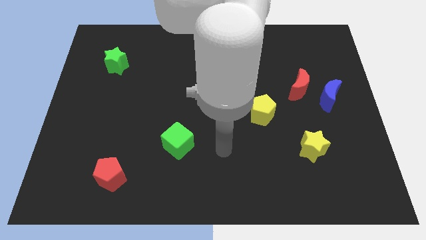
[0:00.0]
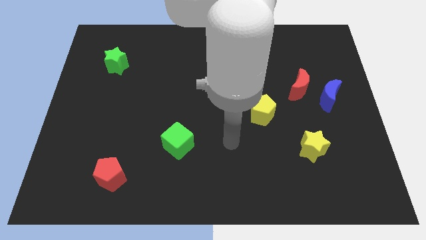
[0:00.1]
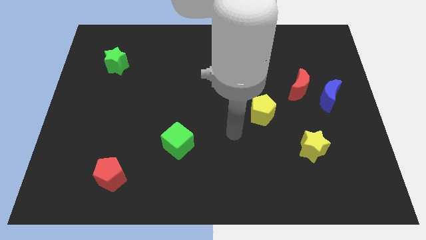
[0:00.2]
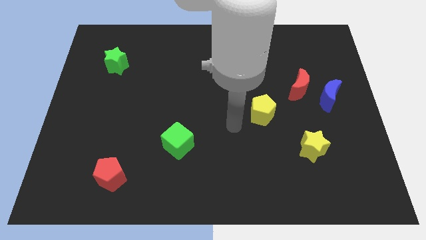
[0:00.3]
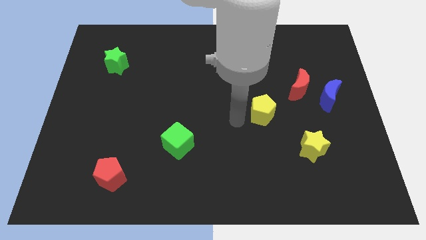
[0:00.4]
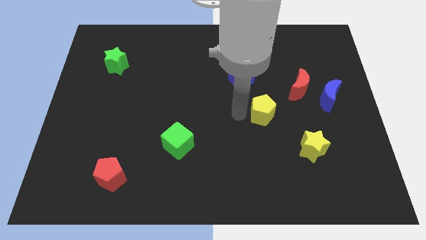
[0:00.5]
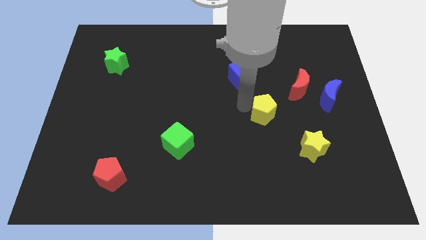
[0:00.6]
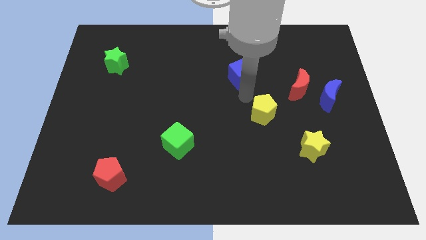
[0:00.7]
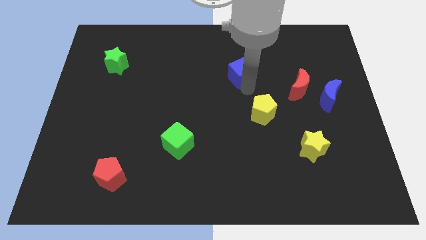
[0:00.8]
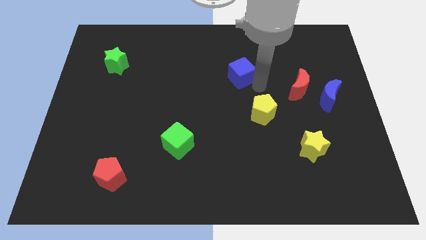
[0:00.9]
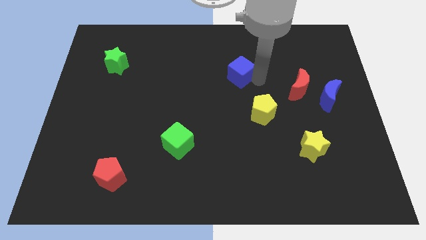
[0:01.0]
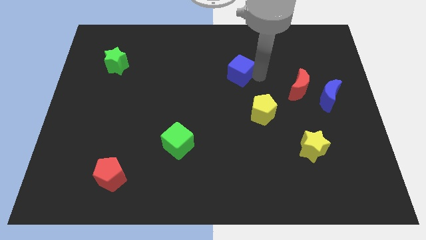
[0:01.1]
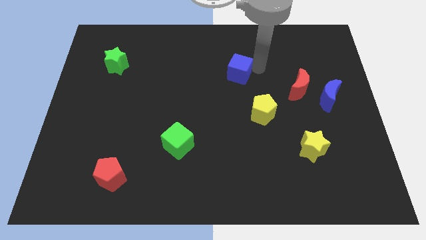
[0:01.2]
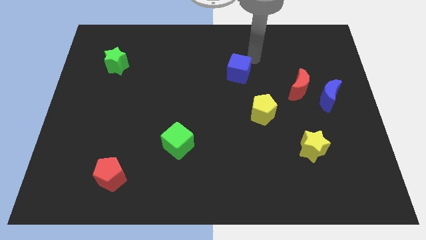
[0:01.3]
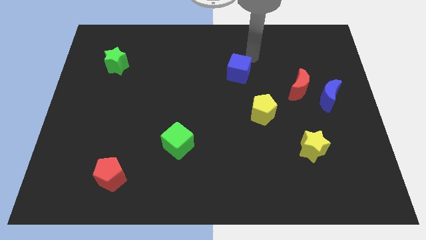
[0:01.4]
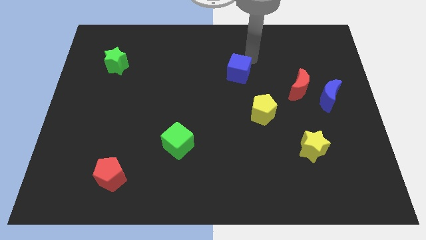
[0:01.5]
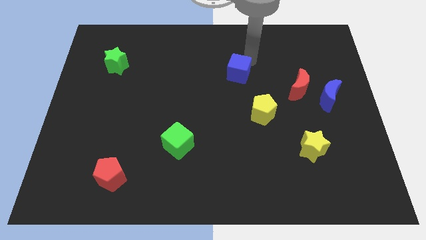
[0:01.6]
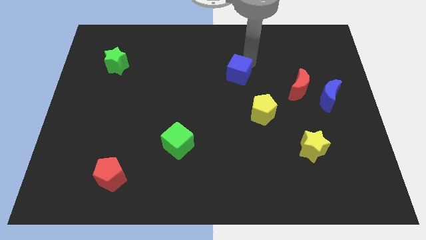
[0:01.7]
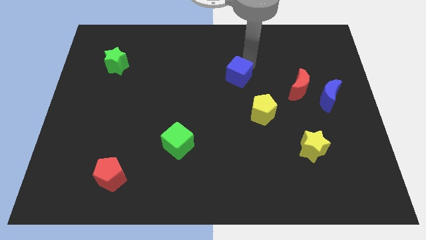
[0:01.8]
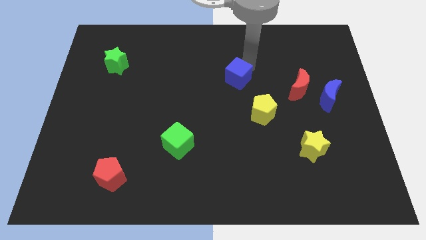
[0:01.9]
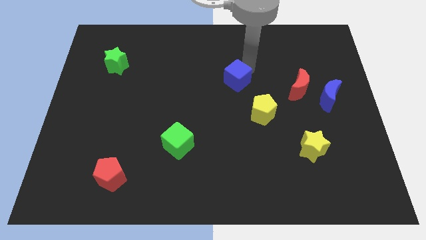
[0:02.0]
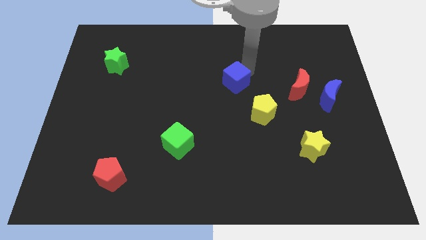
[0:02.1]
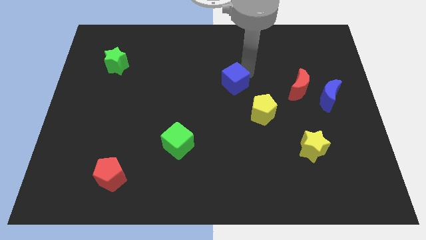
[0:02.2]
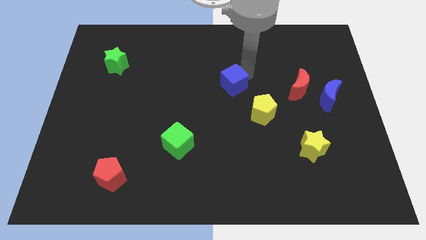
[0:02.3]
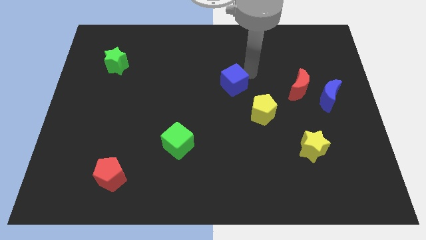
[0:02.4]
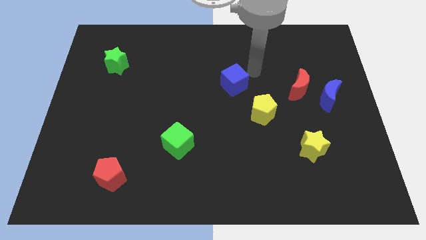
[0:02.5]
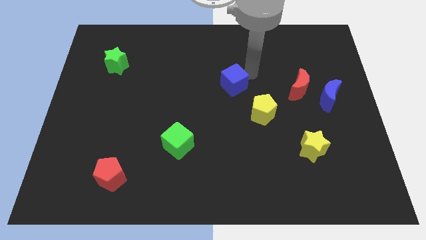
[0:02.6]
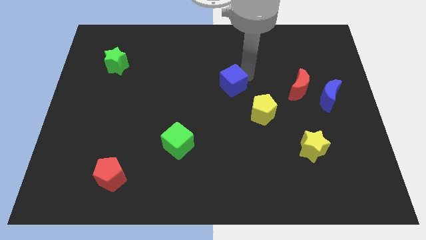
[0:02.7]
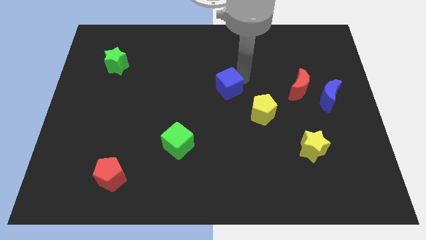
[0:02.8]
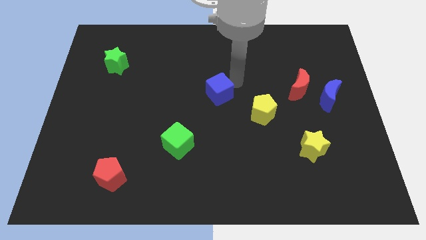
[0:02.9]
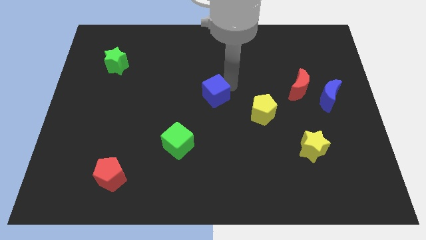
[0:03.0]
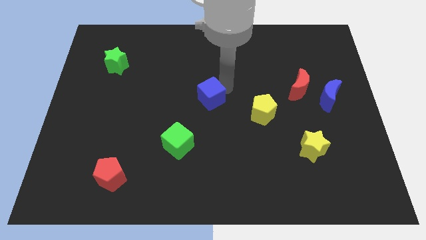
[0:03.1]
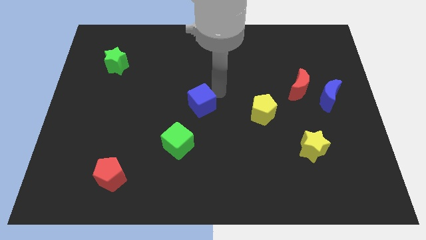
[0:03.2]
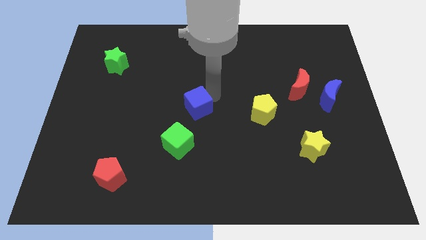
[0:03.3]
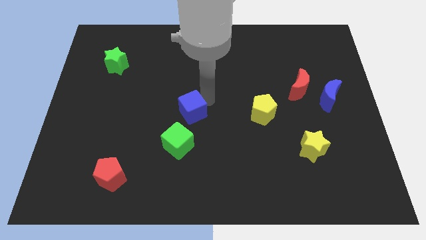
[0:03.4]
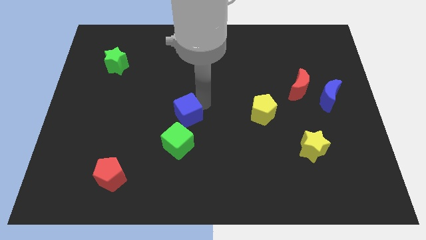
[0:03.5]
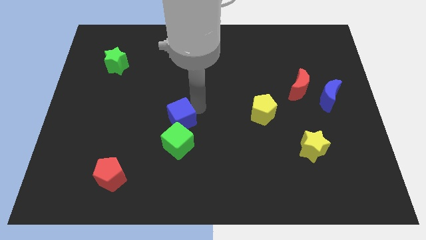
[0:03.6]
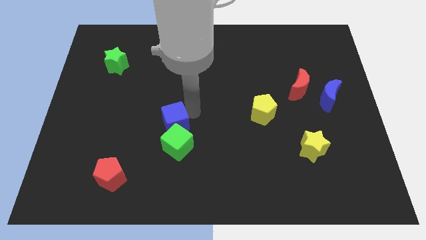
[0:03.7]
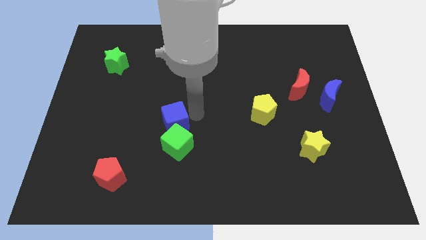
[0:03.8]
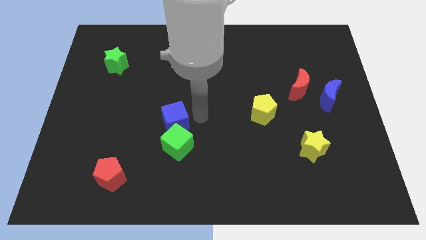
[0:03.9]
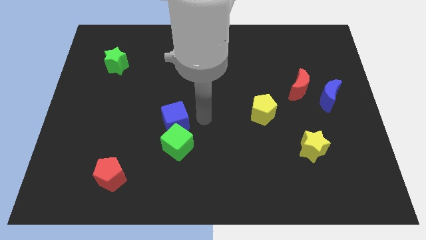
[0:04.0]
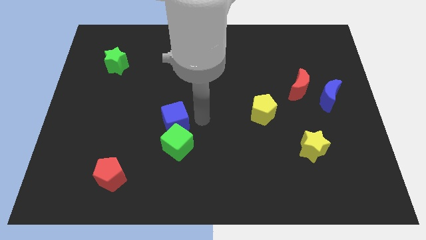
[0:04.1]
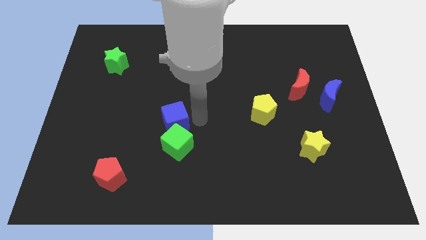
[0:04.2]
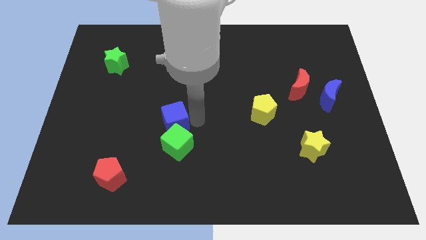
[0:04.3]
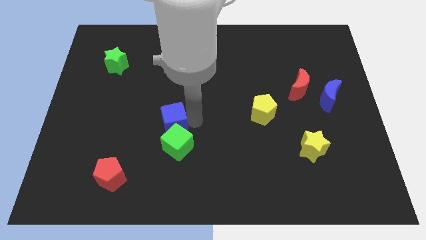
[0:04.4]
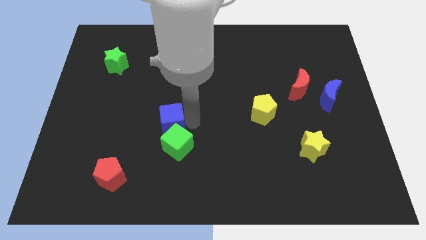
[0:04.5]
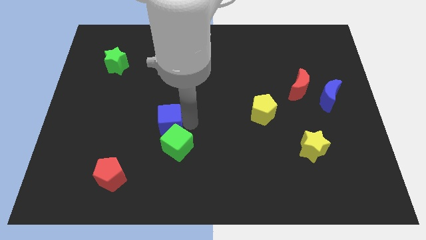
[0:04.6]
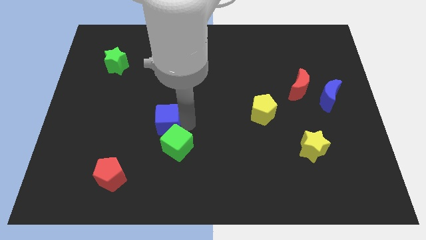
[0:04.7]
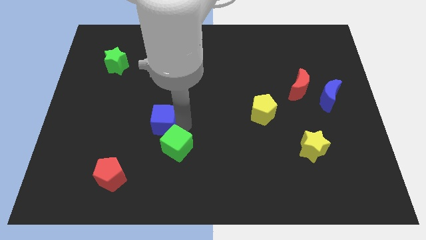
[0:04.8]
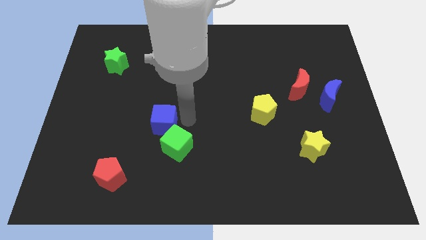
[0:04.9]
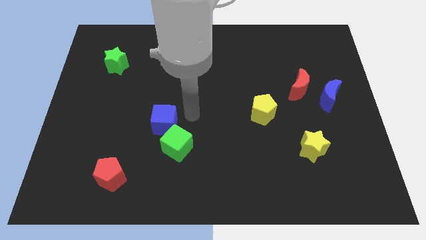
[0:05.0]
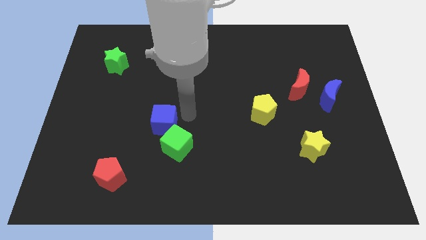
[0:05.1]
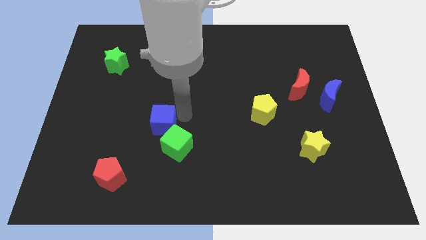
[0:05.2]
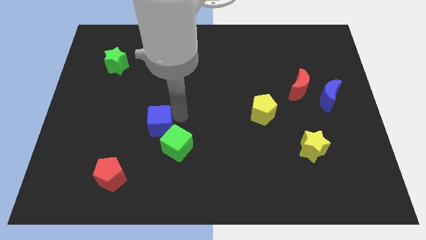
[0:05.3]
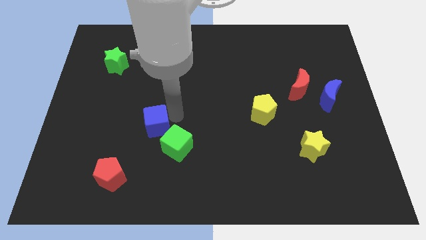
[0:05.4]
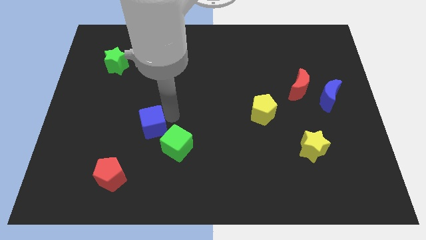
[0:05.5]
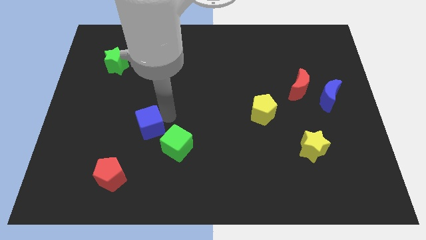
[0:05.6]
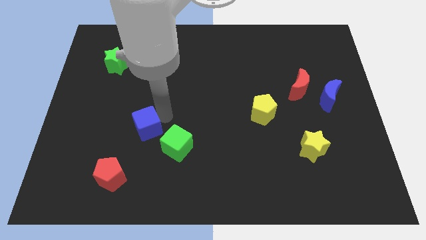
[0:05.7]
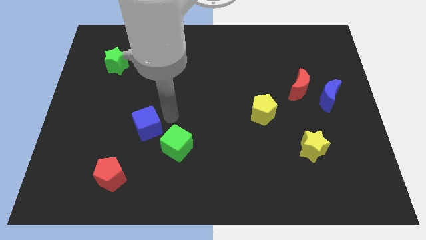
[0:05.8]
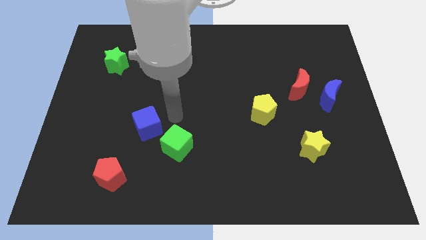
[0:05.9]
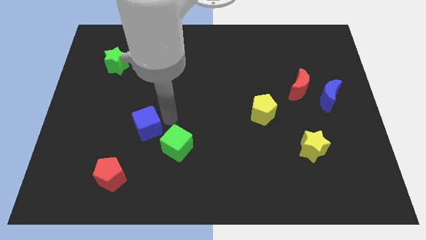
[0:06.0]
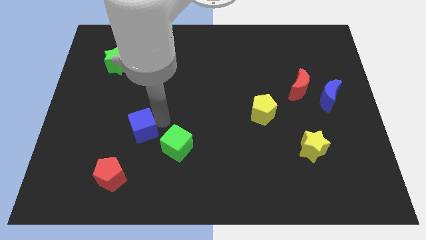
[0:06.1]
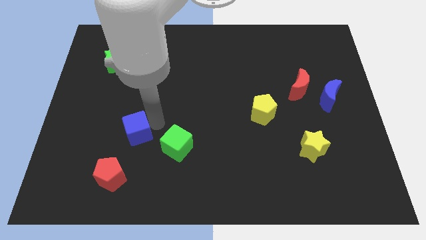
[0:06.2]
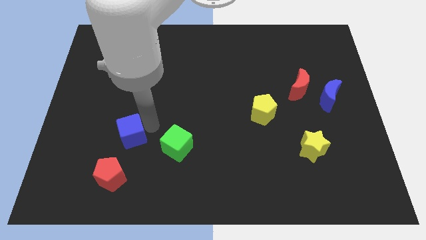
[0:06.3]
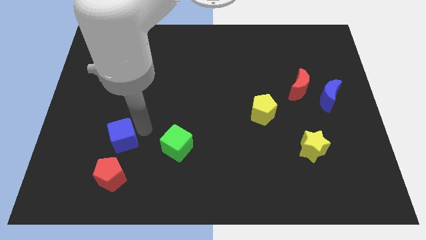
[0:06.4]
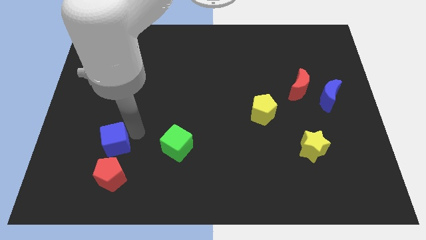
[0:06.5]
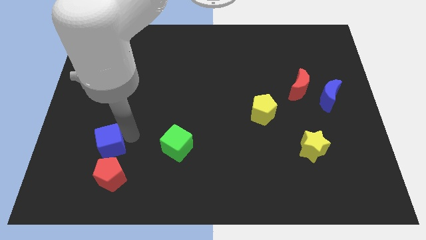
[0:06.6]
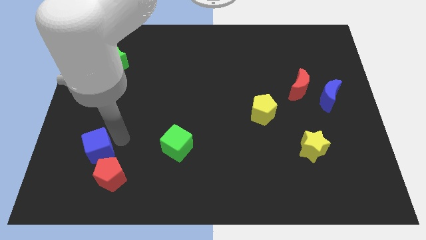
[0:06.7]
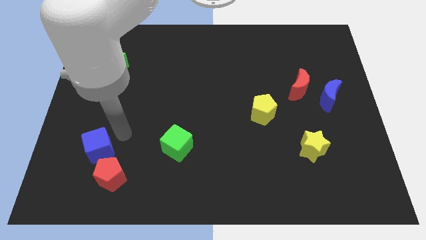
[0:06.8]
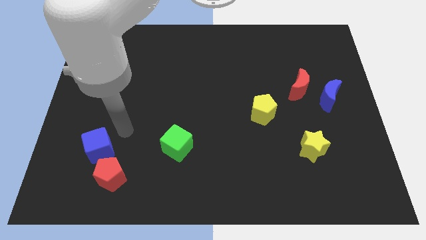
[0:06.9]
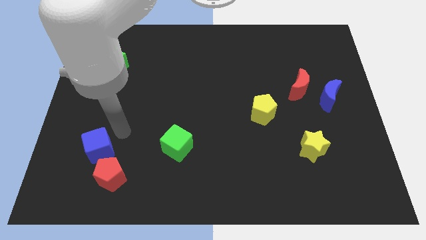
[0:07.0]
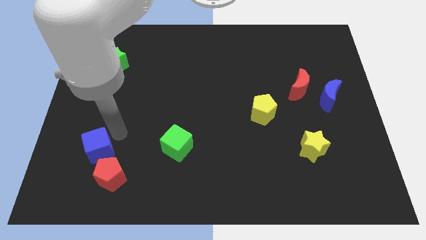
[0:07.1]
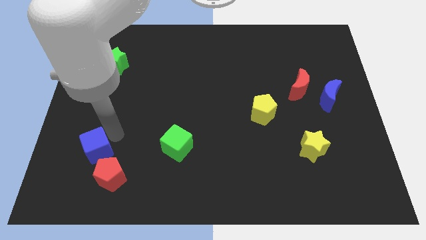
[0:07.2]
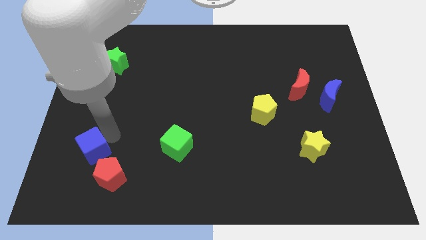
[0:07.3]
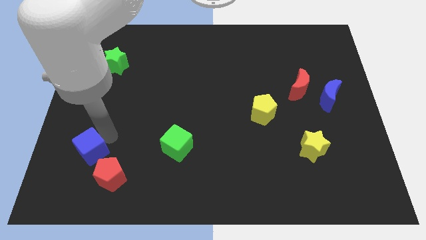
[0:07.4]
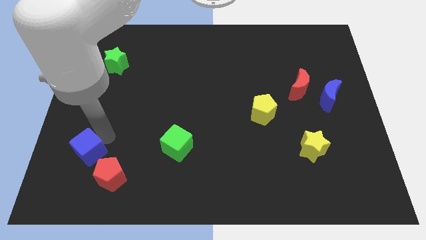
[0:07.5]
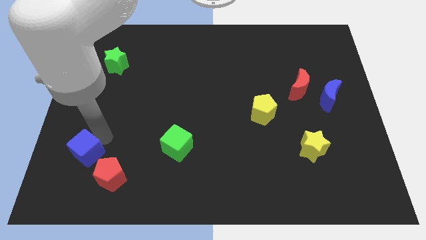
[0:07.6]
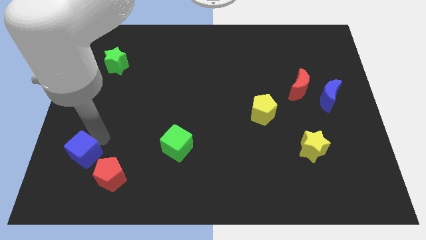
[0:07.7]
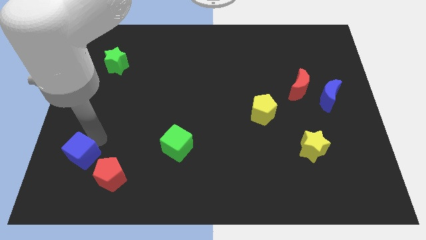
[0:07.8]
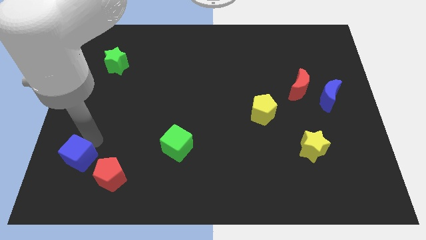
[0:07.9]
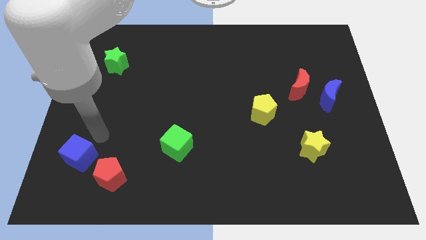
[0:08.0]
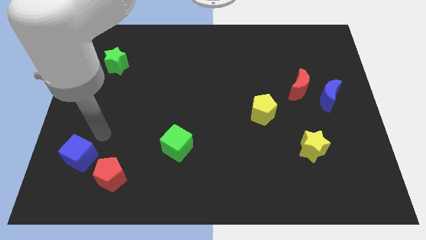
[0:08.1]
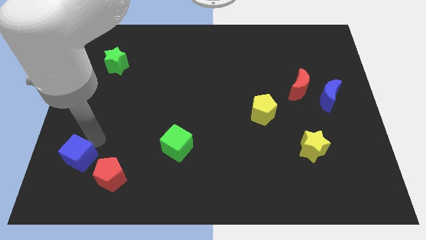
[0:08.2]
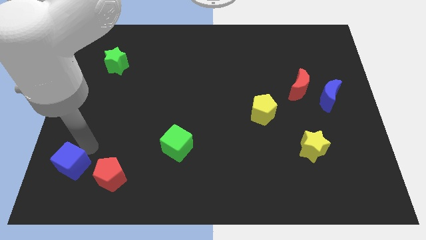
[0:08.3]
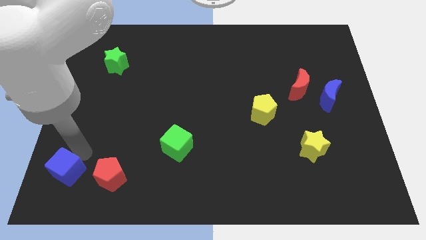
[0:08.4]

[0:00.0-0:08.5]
put the blue cube to the bottom left
